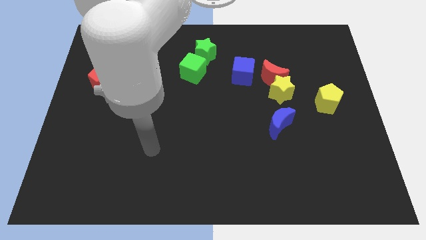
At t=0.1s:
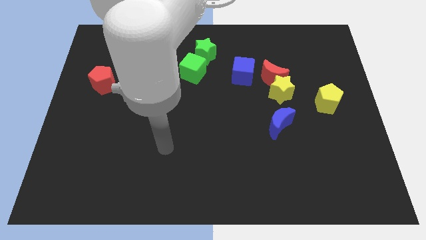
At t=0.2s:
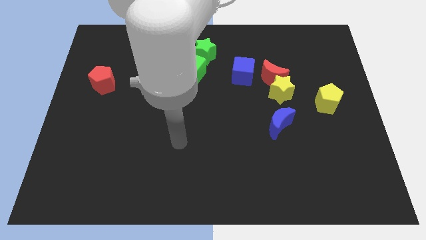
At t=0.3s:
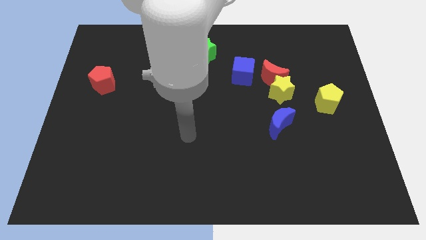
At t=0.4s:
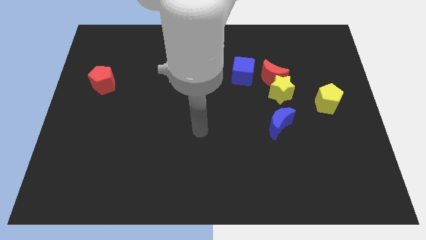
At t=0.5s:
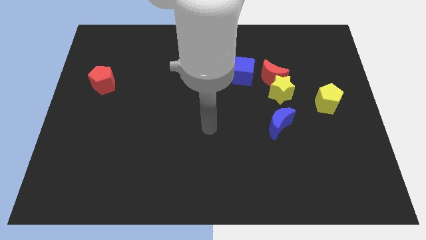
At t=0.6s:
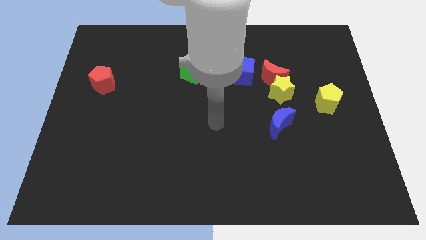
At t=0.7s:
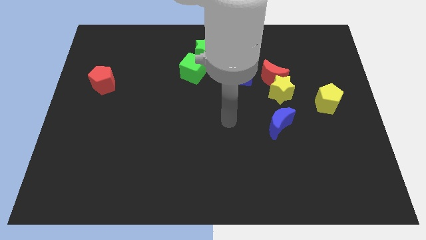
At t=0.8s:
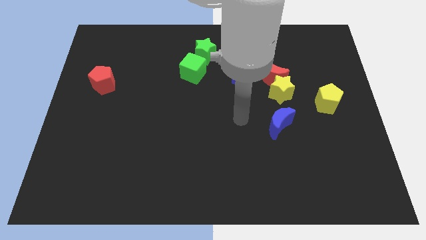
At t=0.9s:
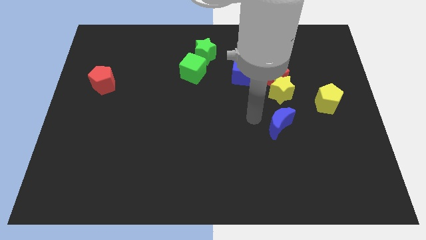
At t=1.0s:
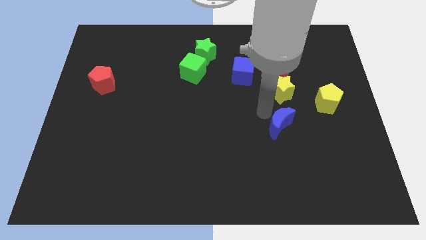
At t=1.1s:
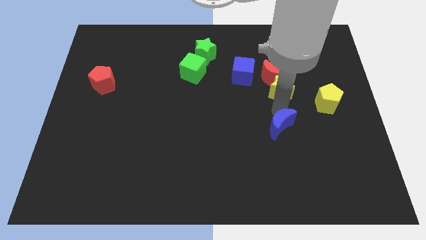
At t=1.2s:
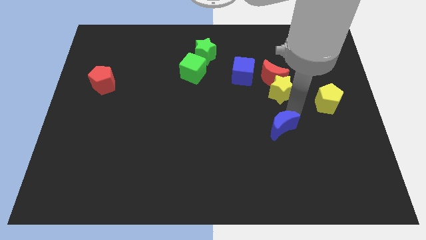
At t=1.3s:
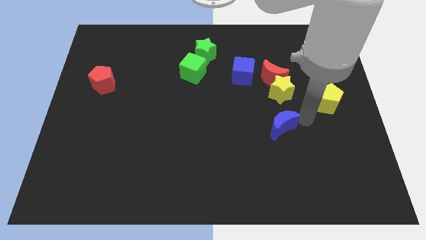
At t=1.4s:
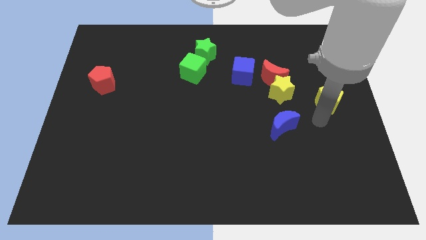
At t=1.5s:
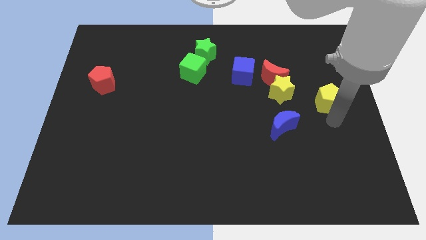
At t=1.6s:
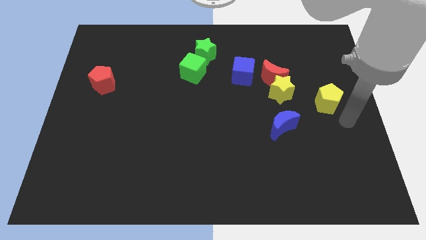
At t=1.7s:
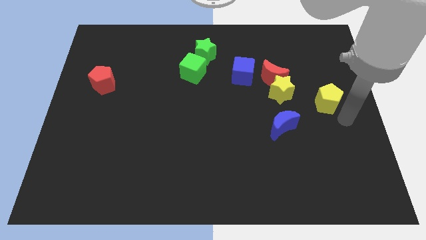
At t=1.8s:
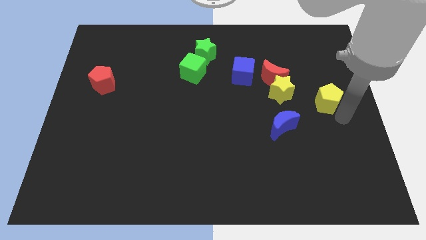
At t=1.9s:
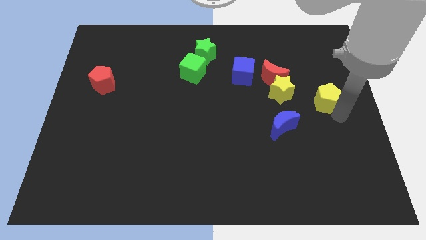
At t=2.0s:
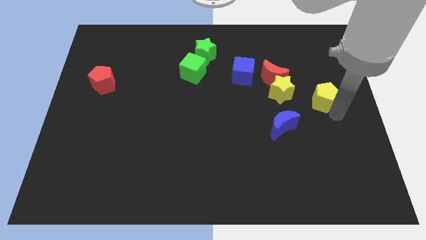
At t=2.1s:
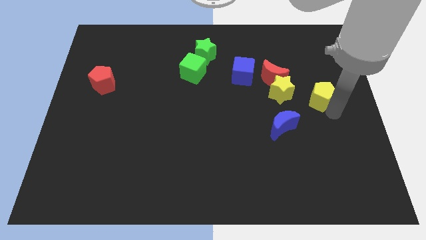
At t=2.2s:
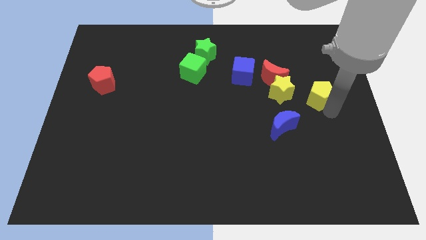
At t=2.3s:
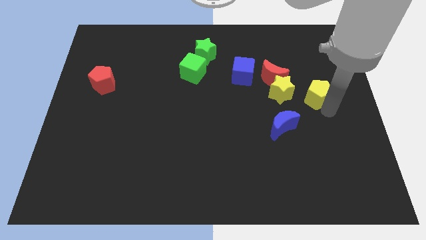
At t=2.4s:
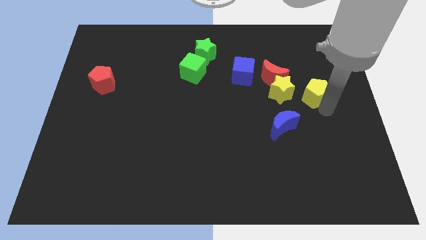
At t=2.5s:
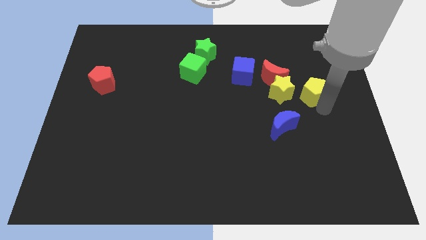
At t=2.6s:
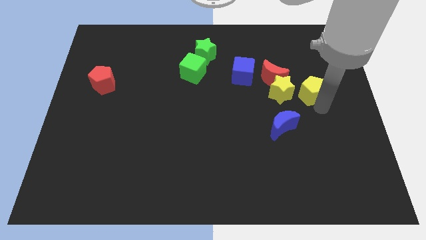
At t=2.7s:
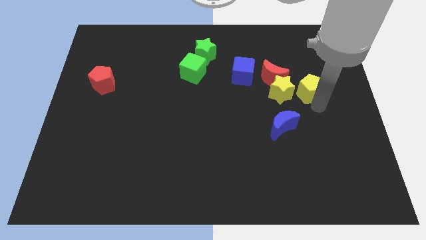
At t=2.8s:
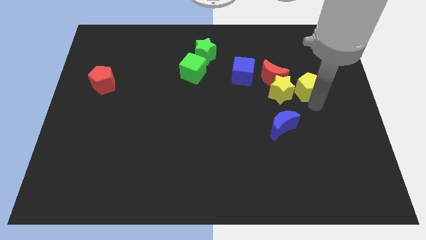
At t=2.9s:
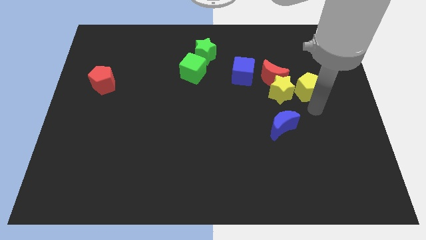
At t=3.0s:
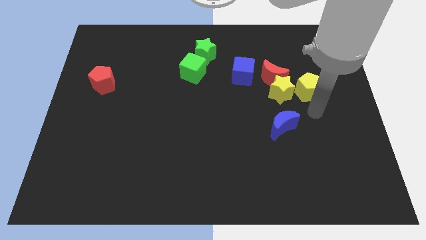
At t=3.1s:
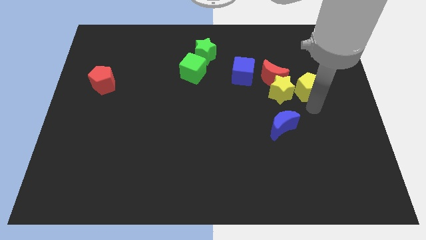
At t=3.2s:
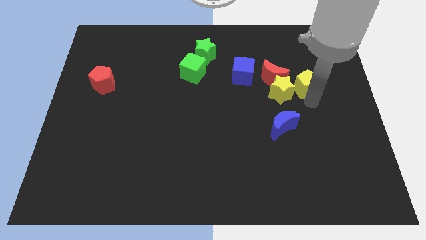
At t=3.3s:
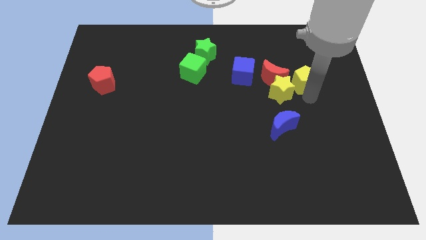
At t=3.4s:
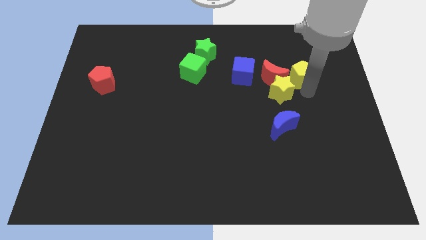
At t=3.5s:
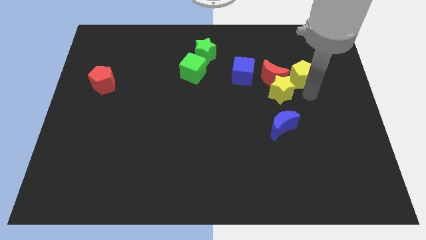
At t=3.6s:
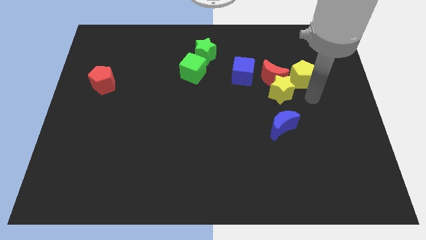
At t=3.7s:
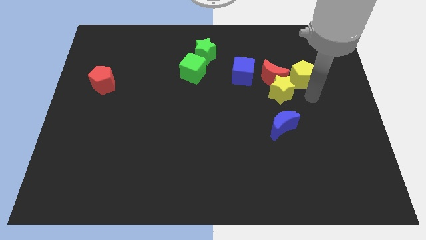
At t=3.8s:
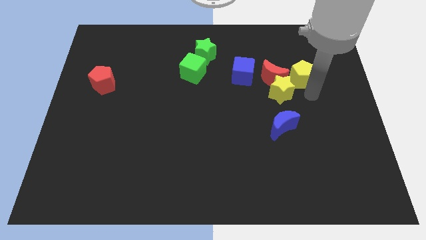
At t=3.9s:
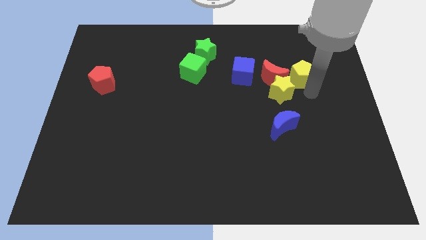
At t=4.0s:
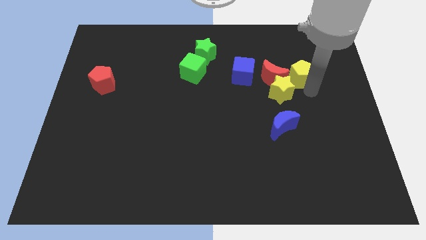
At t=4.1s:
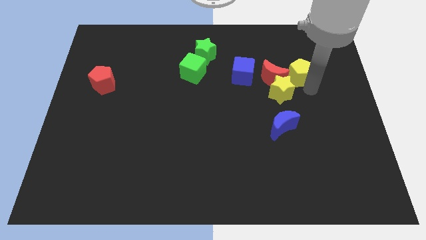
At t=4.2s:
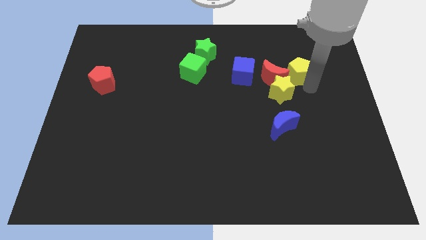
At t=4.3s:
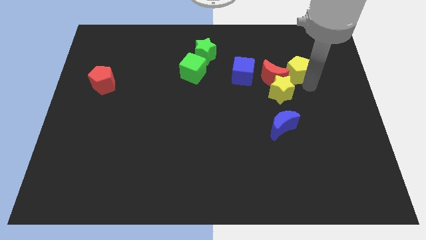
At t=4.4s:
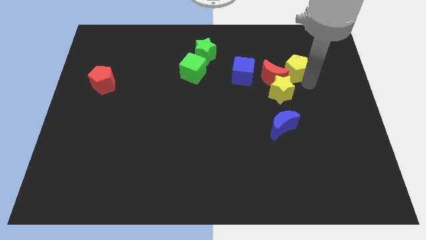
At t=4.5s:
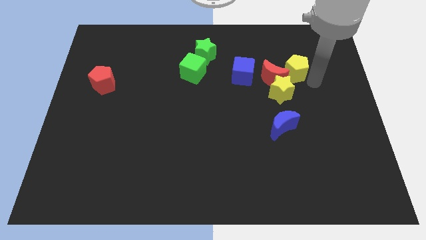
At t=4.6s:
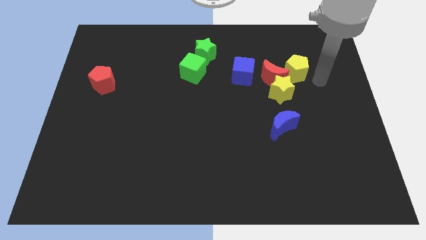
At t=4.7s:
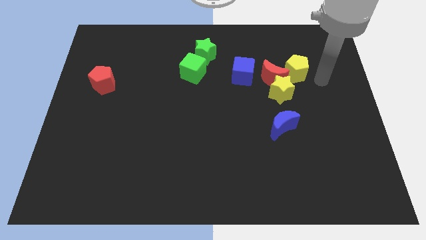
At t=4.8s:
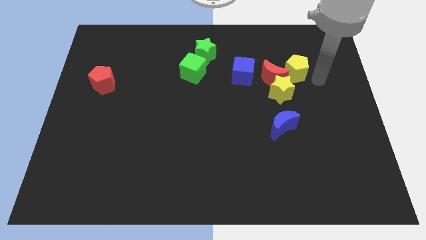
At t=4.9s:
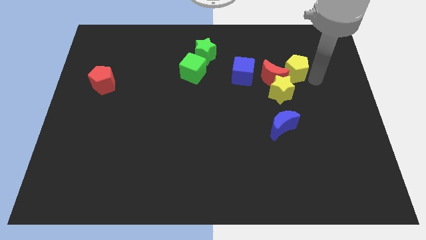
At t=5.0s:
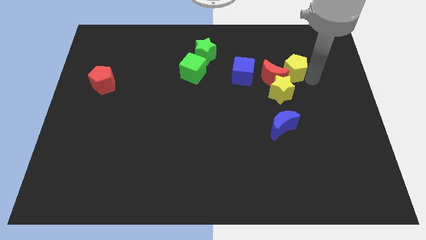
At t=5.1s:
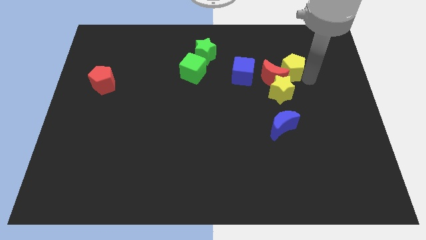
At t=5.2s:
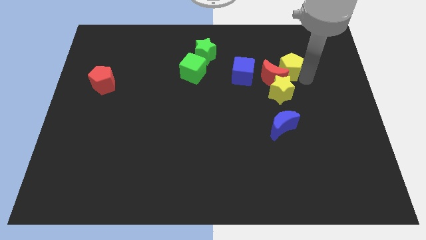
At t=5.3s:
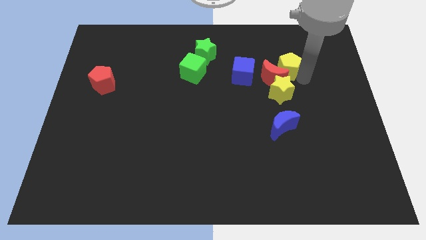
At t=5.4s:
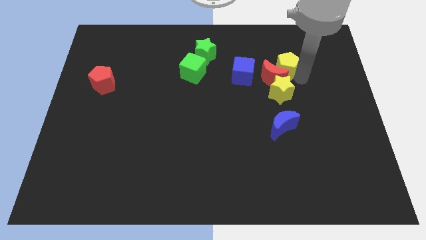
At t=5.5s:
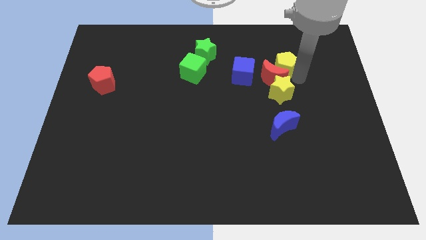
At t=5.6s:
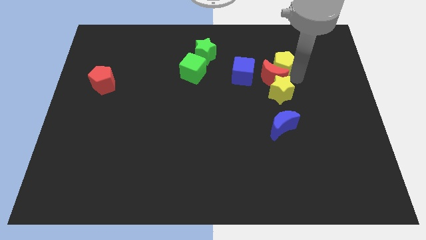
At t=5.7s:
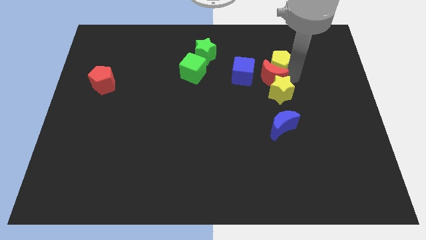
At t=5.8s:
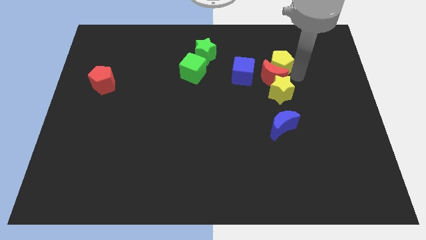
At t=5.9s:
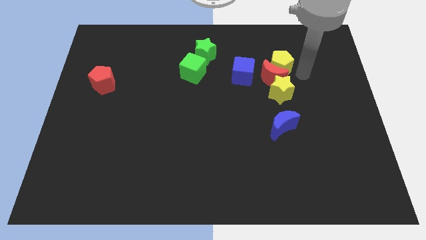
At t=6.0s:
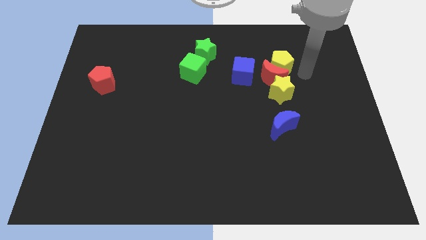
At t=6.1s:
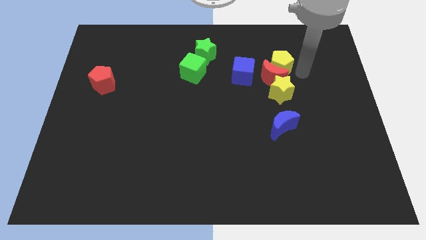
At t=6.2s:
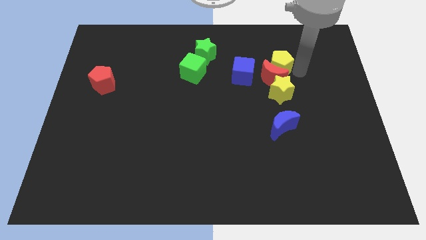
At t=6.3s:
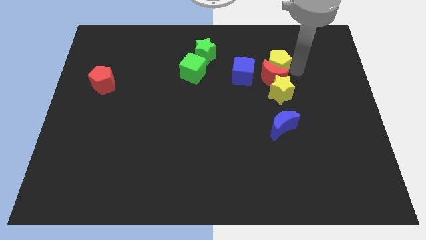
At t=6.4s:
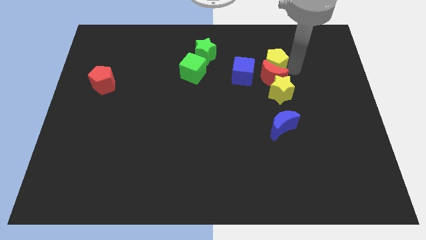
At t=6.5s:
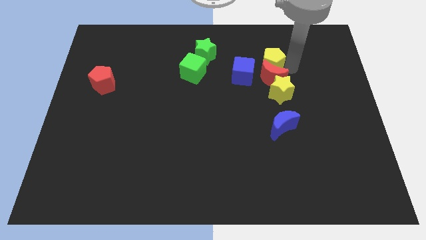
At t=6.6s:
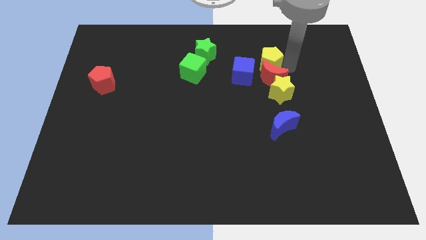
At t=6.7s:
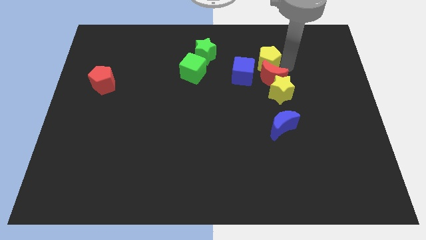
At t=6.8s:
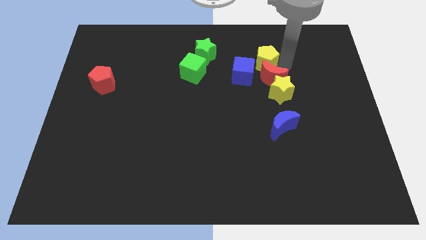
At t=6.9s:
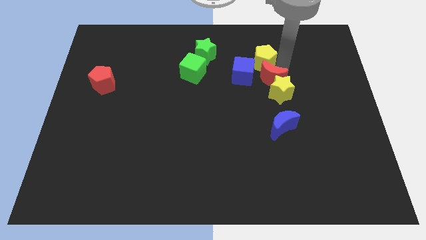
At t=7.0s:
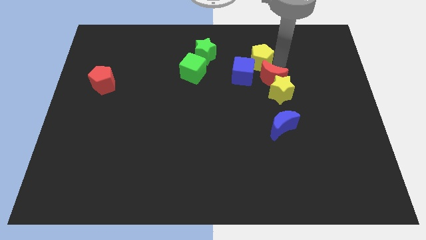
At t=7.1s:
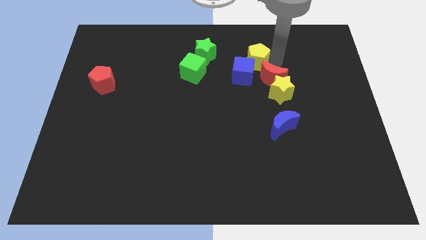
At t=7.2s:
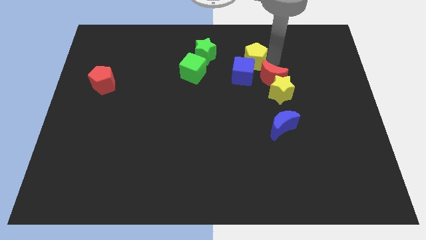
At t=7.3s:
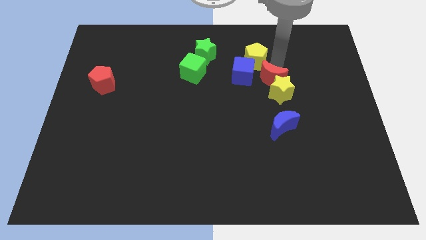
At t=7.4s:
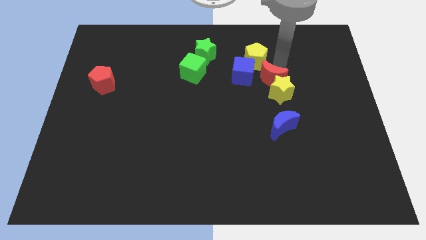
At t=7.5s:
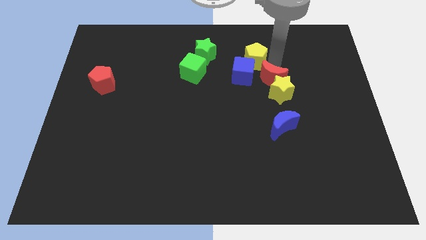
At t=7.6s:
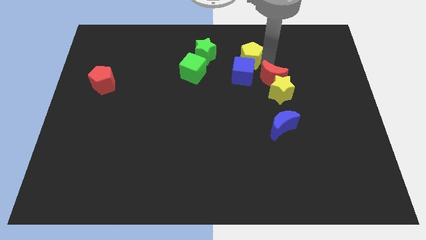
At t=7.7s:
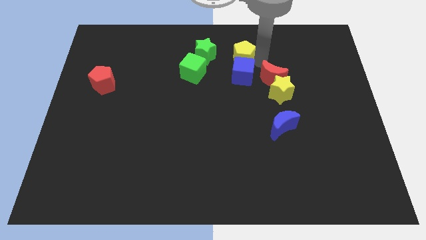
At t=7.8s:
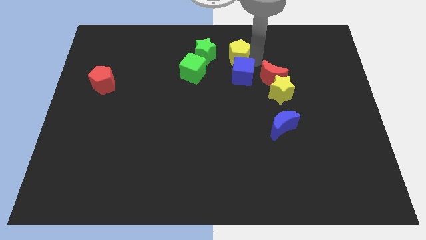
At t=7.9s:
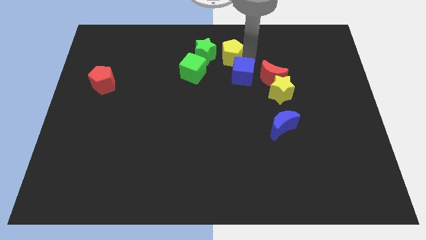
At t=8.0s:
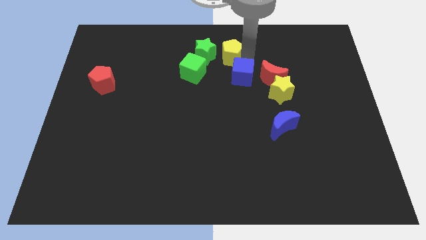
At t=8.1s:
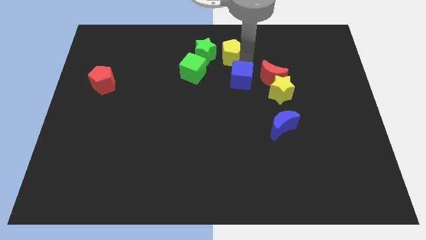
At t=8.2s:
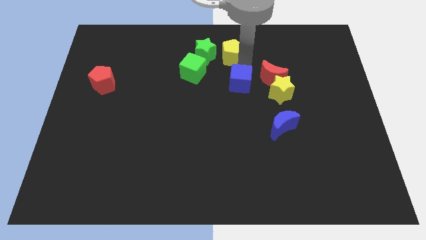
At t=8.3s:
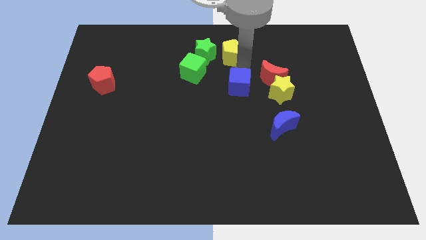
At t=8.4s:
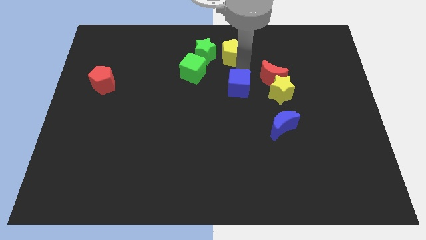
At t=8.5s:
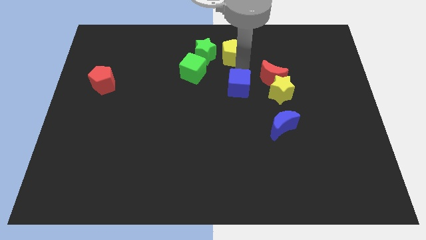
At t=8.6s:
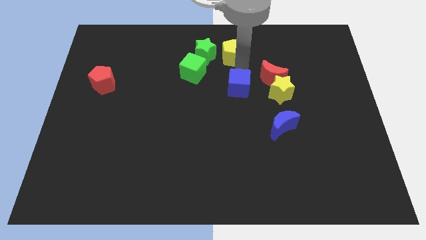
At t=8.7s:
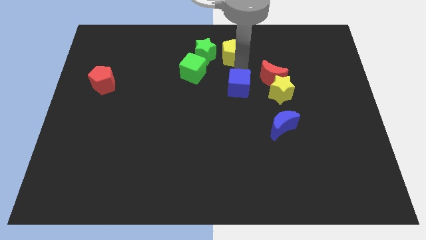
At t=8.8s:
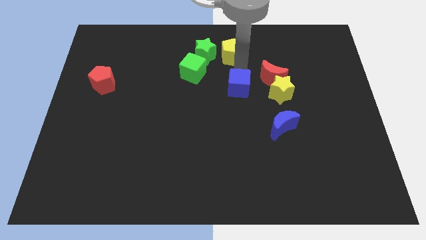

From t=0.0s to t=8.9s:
slide the yellow pentagon to the top side
